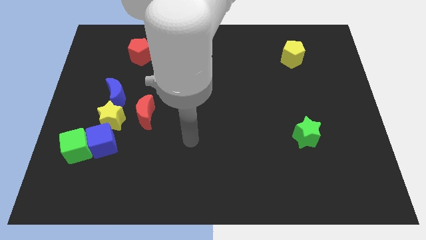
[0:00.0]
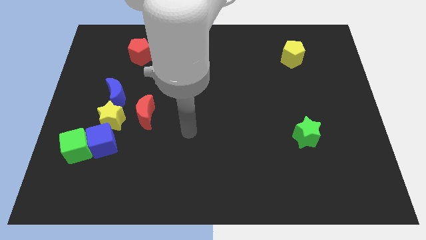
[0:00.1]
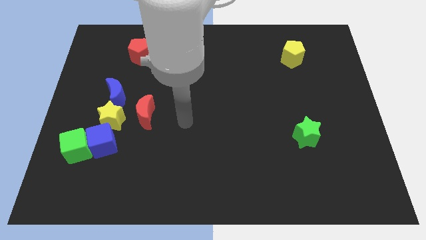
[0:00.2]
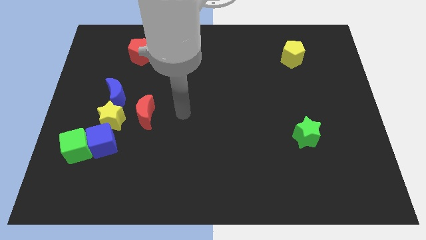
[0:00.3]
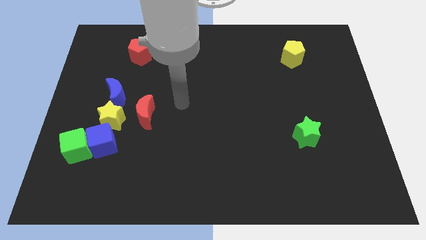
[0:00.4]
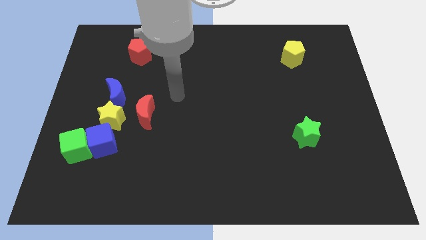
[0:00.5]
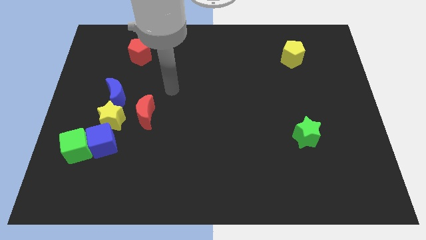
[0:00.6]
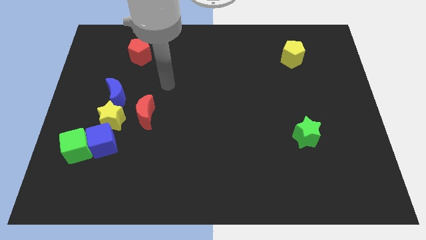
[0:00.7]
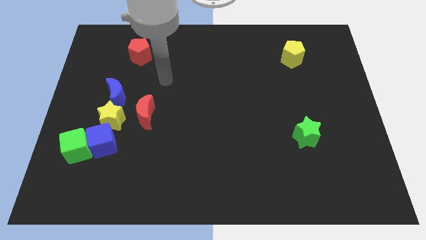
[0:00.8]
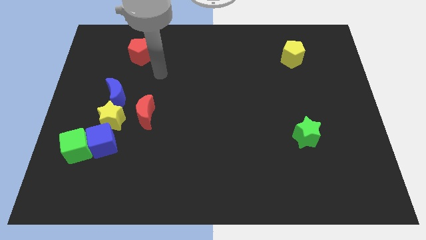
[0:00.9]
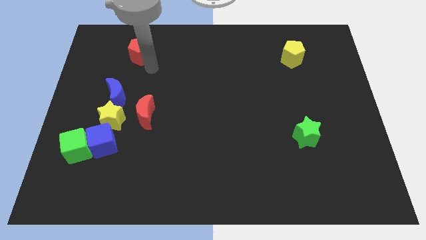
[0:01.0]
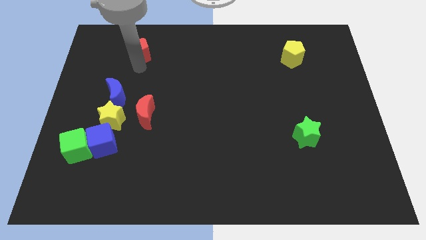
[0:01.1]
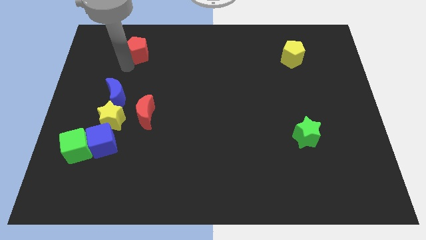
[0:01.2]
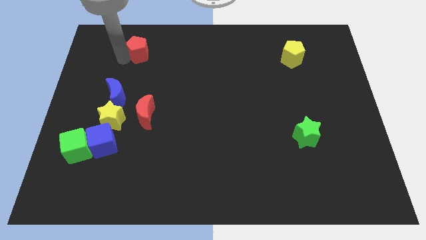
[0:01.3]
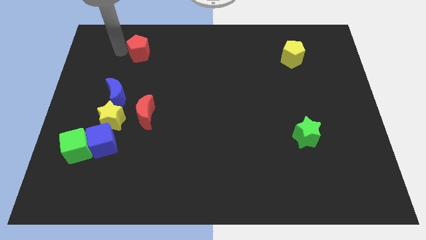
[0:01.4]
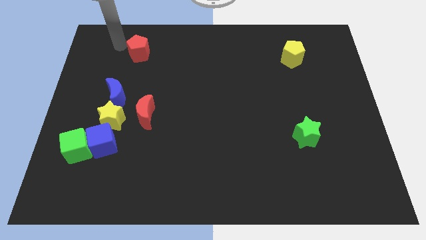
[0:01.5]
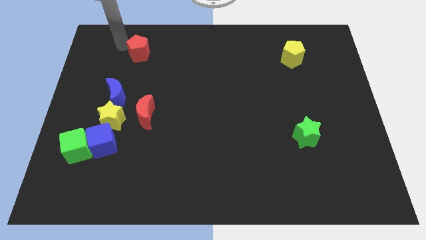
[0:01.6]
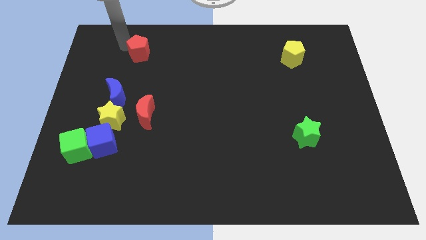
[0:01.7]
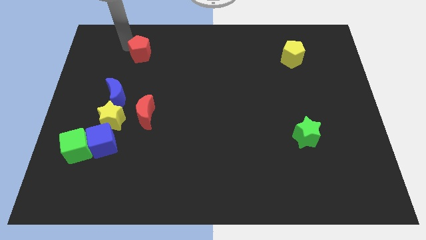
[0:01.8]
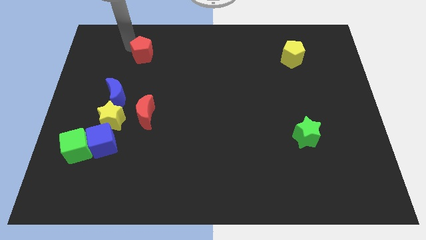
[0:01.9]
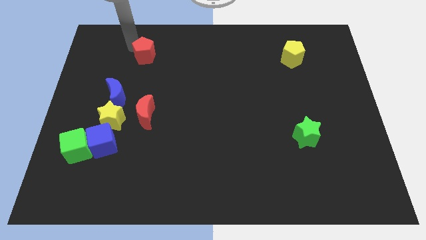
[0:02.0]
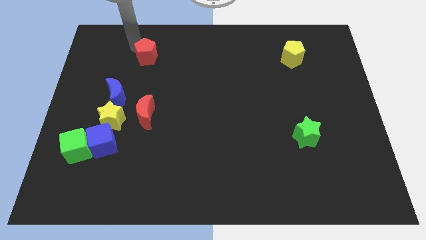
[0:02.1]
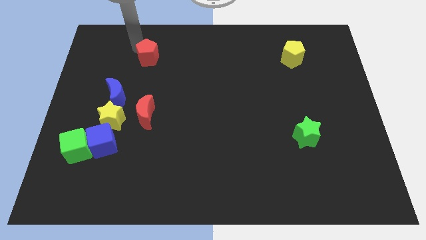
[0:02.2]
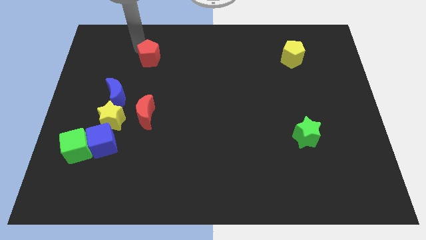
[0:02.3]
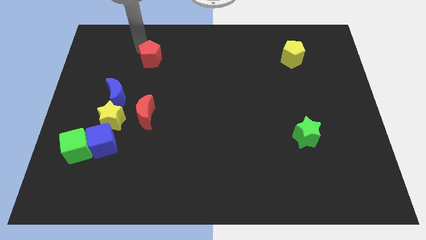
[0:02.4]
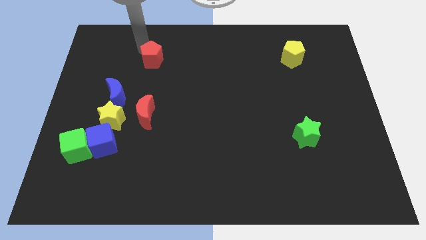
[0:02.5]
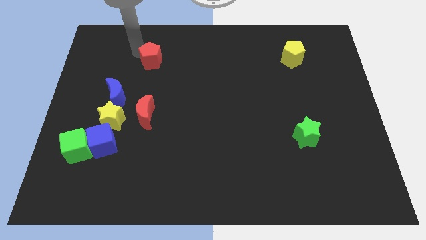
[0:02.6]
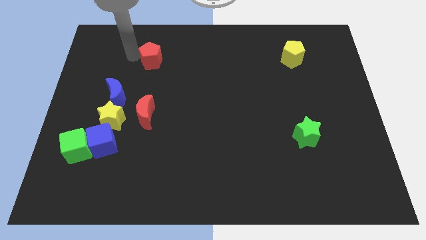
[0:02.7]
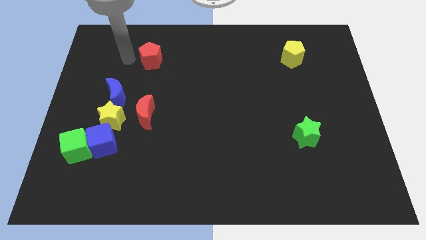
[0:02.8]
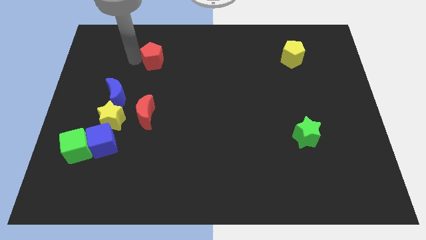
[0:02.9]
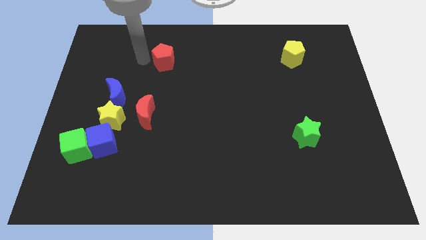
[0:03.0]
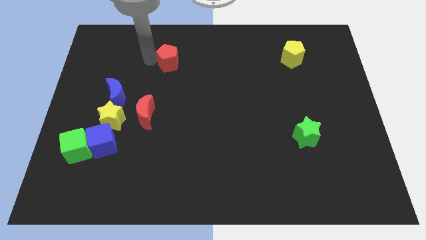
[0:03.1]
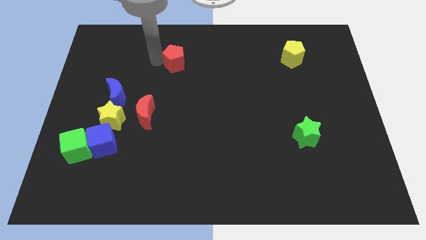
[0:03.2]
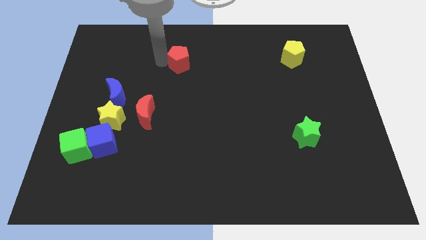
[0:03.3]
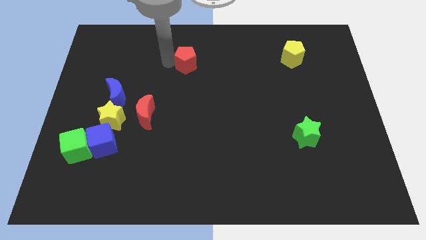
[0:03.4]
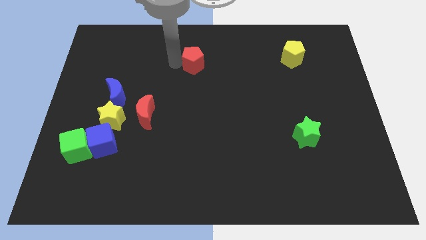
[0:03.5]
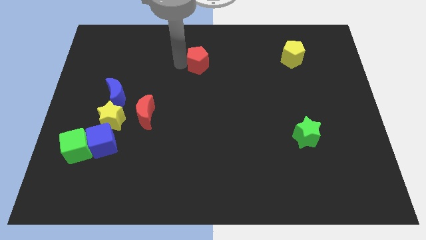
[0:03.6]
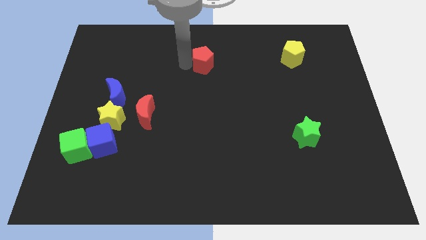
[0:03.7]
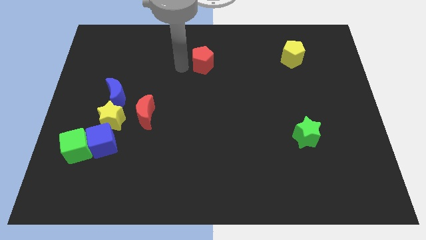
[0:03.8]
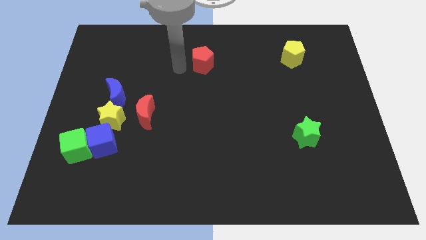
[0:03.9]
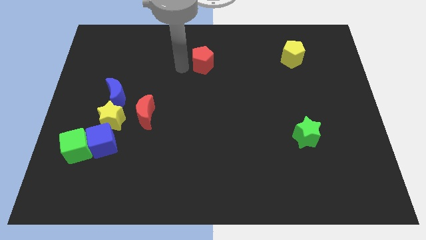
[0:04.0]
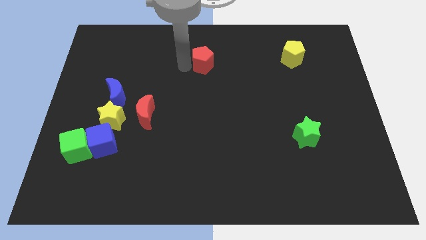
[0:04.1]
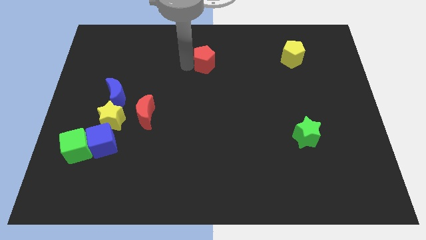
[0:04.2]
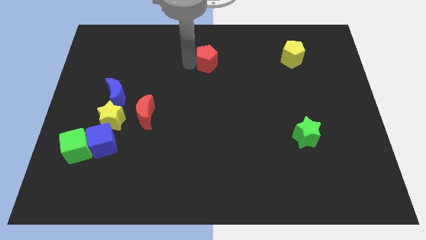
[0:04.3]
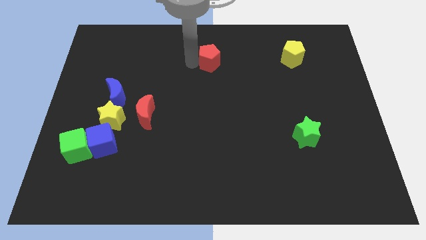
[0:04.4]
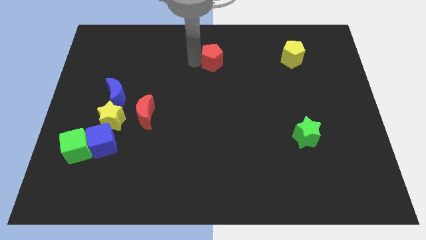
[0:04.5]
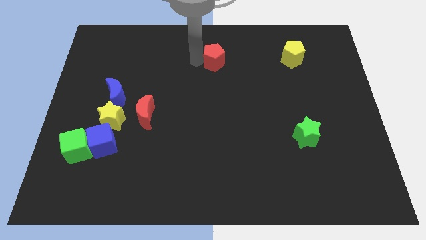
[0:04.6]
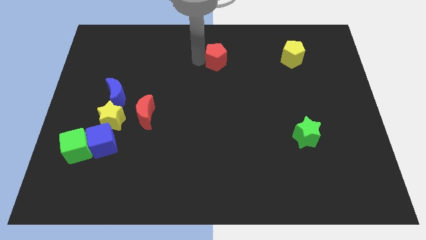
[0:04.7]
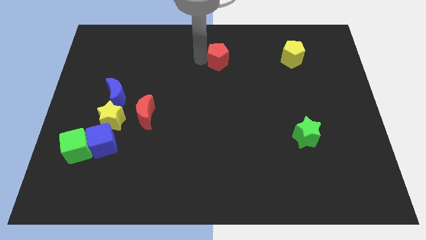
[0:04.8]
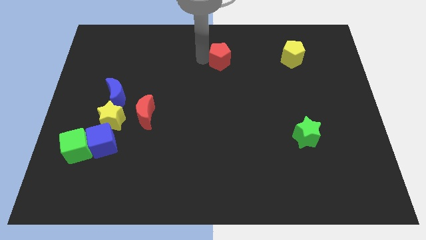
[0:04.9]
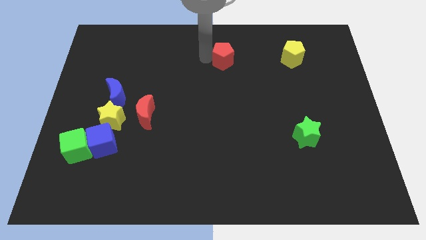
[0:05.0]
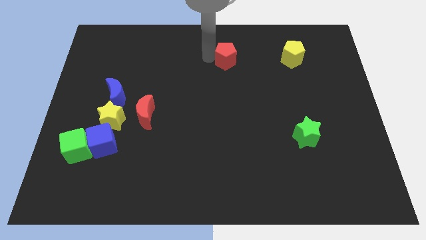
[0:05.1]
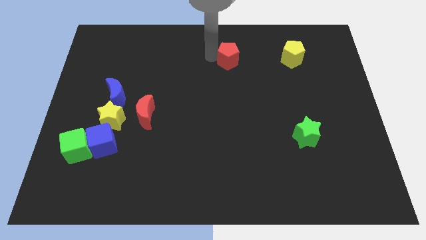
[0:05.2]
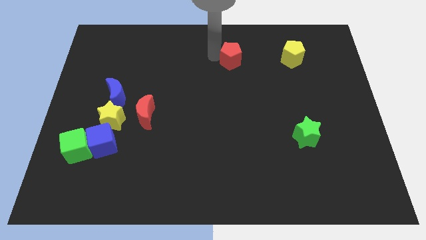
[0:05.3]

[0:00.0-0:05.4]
put the red pentagon to the left side of the yellow pentagon

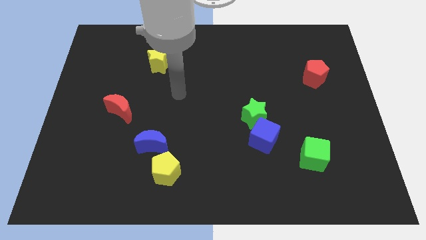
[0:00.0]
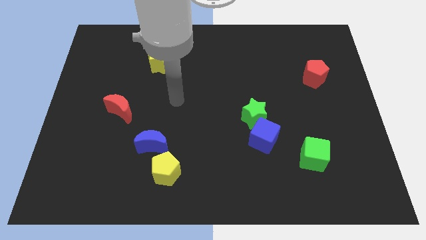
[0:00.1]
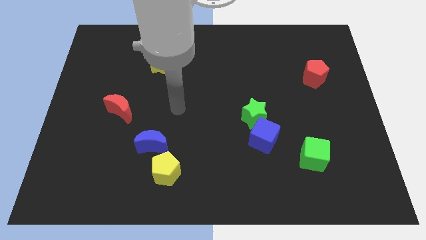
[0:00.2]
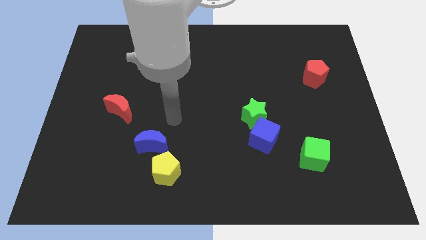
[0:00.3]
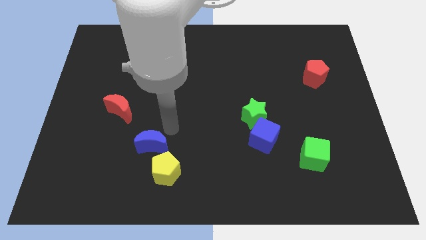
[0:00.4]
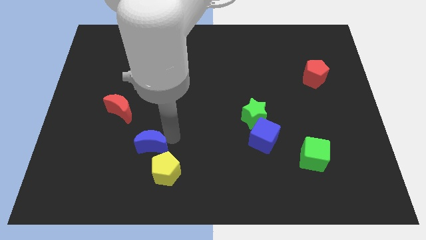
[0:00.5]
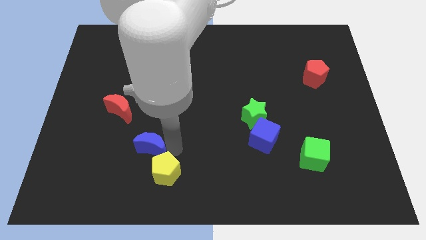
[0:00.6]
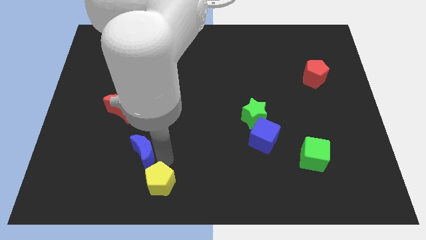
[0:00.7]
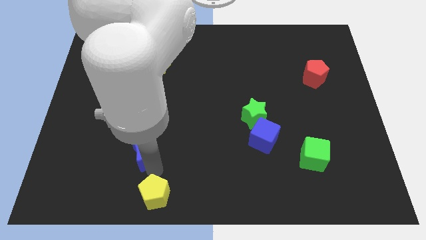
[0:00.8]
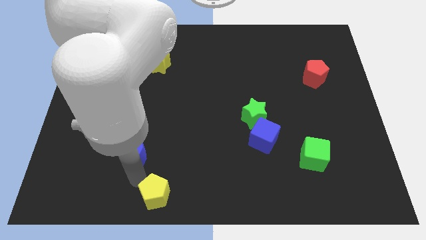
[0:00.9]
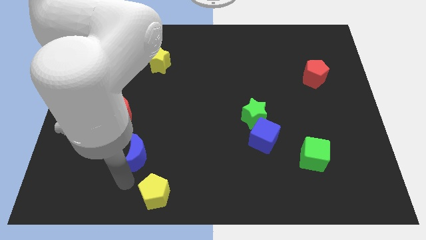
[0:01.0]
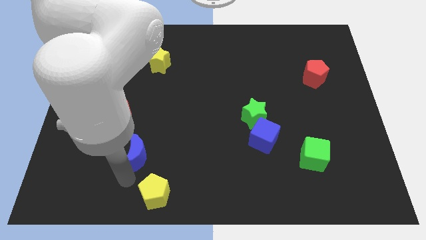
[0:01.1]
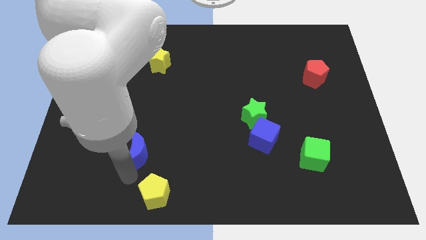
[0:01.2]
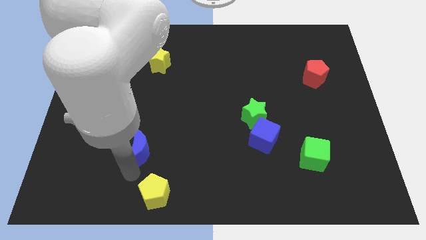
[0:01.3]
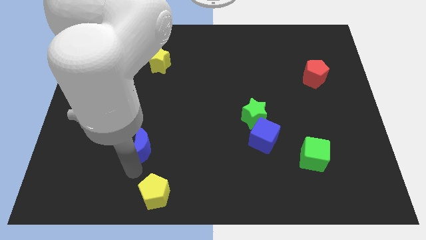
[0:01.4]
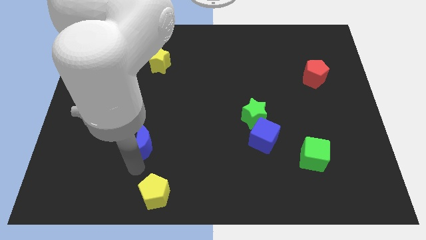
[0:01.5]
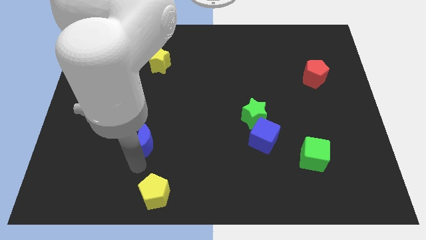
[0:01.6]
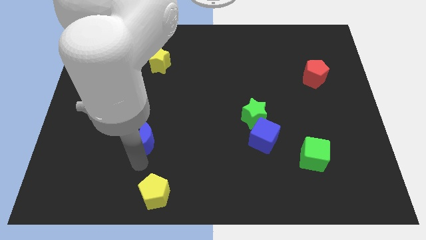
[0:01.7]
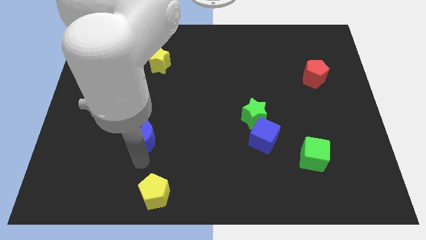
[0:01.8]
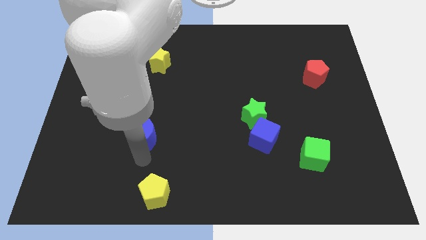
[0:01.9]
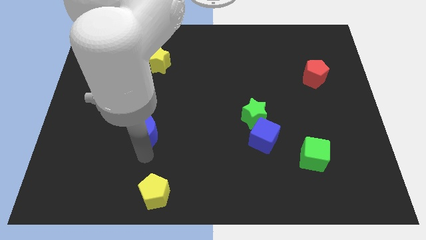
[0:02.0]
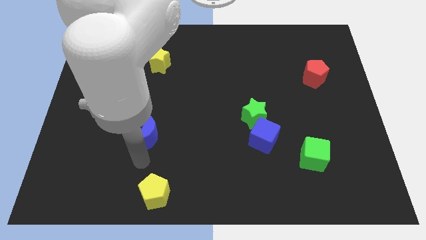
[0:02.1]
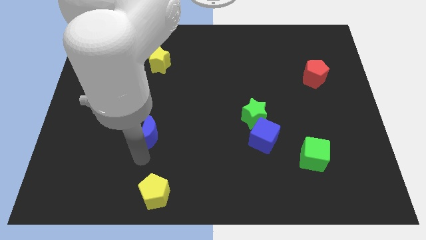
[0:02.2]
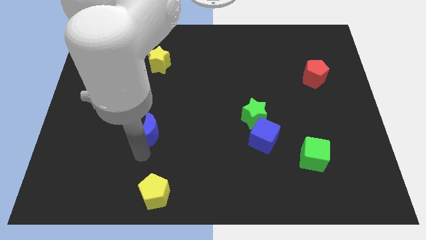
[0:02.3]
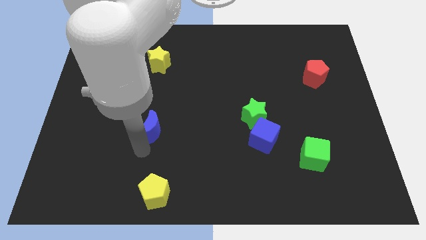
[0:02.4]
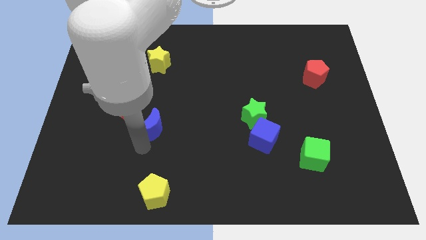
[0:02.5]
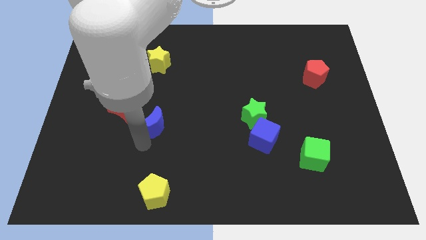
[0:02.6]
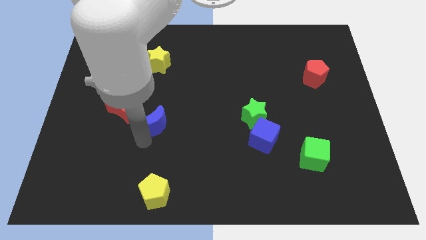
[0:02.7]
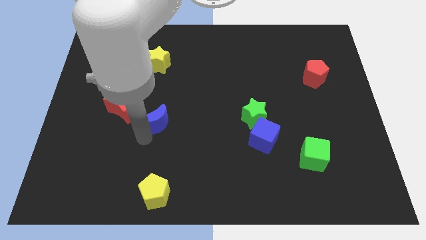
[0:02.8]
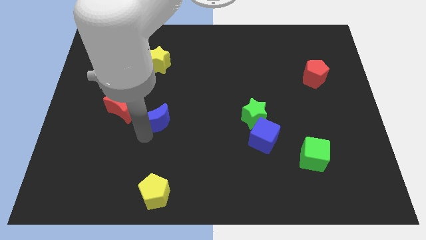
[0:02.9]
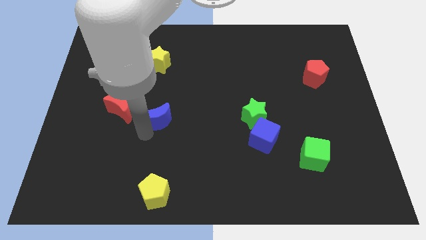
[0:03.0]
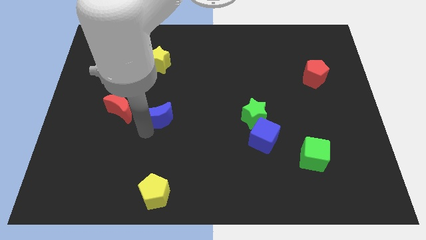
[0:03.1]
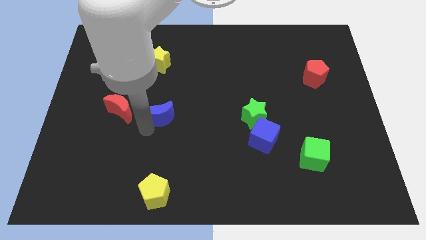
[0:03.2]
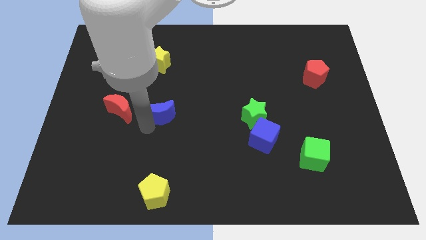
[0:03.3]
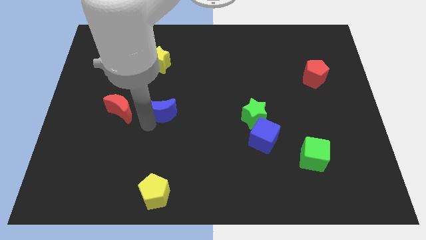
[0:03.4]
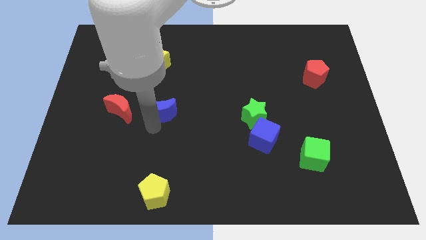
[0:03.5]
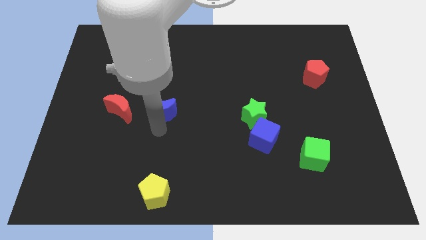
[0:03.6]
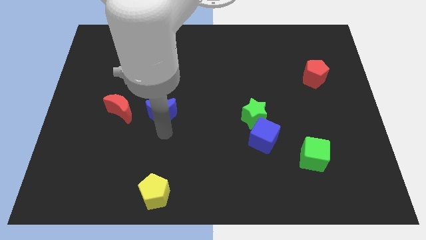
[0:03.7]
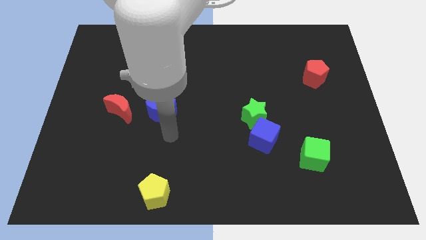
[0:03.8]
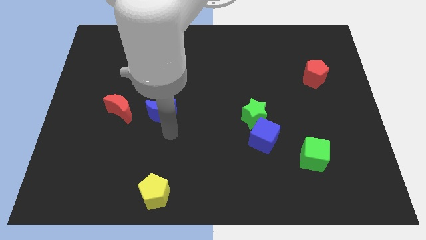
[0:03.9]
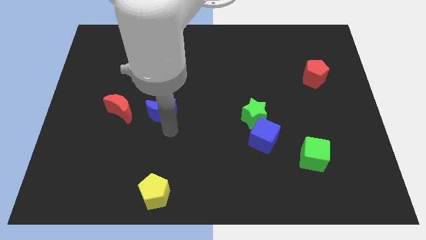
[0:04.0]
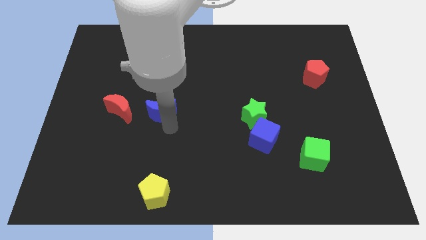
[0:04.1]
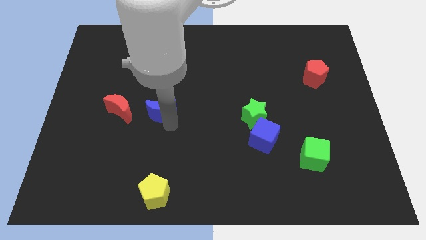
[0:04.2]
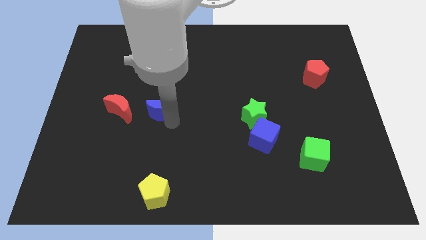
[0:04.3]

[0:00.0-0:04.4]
move the blue moon to the bottom side of the yellow star
